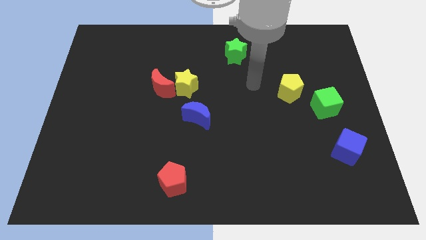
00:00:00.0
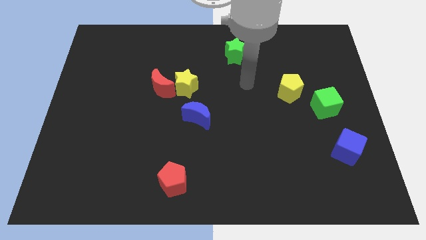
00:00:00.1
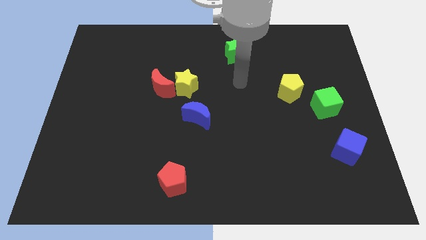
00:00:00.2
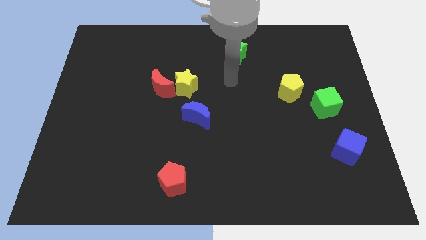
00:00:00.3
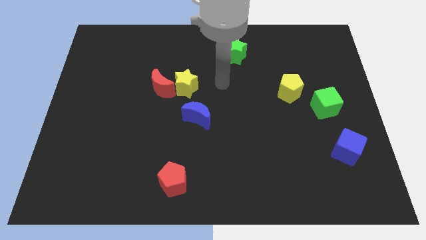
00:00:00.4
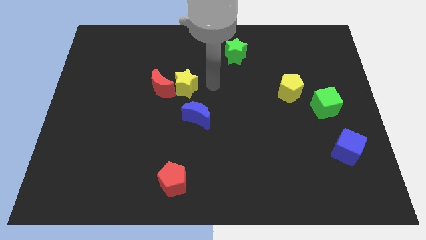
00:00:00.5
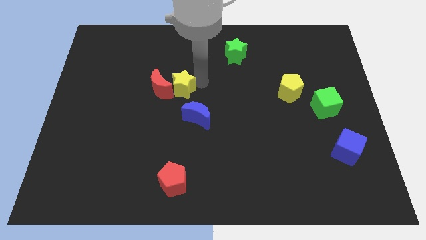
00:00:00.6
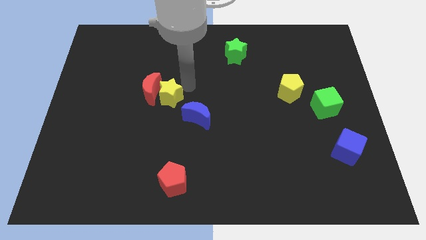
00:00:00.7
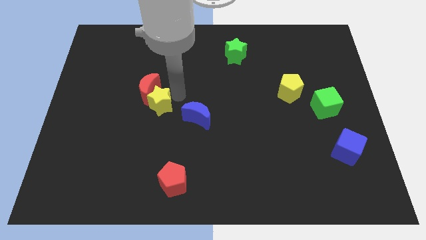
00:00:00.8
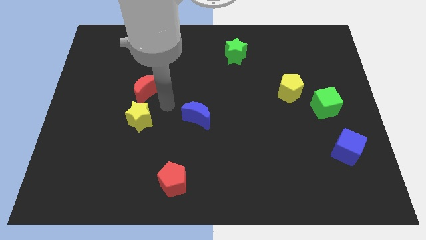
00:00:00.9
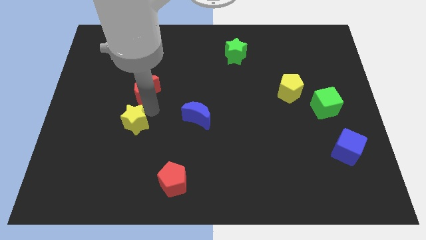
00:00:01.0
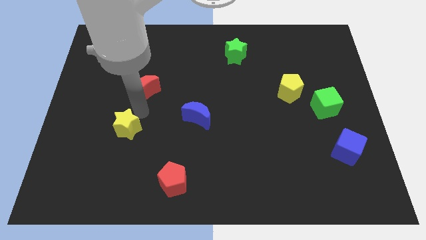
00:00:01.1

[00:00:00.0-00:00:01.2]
pull the red moon apart from the yellow star

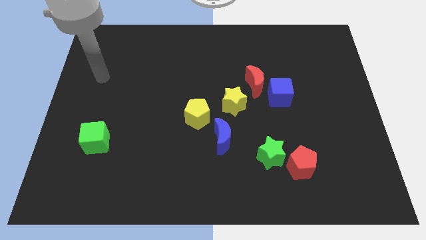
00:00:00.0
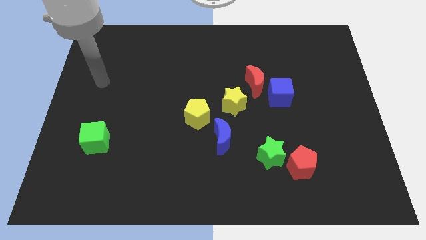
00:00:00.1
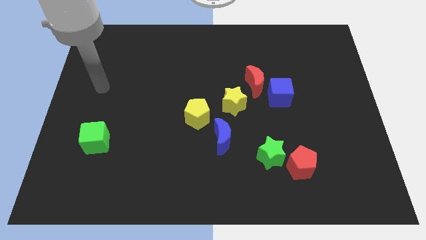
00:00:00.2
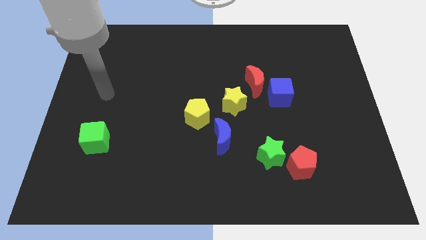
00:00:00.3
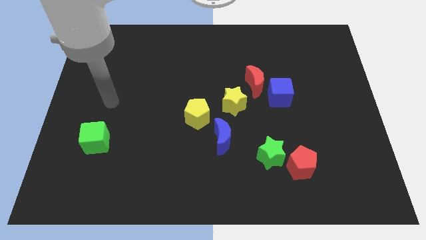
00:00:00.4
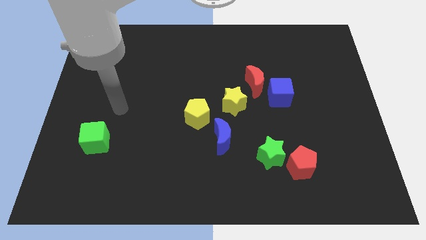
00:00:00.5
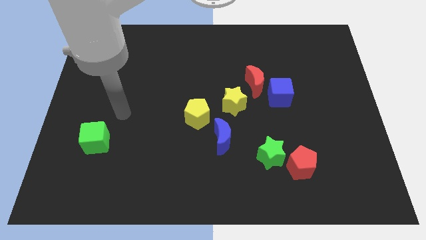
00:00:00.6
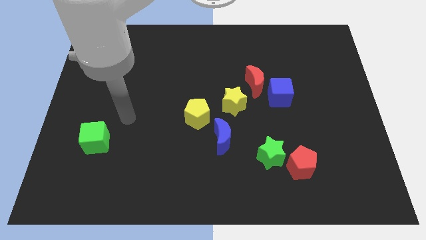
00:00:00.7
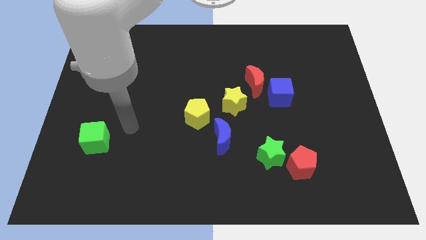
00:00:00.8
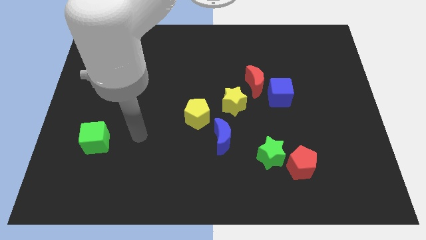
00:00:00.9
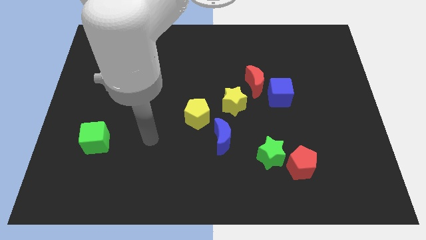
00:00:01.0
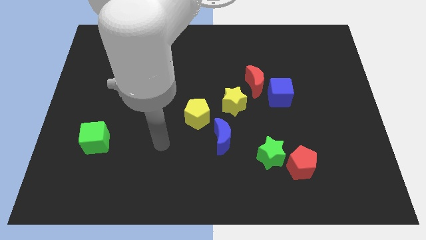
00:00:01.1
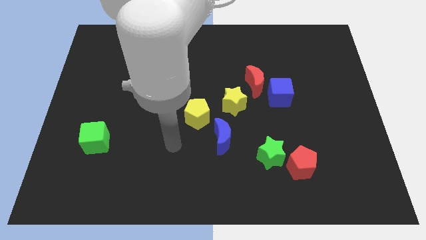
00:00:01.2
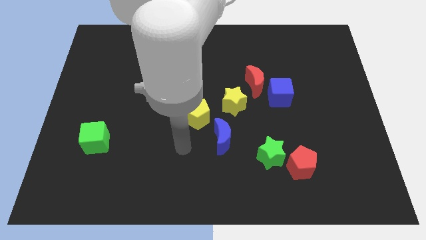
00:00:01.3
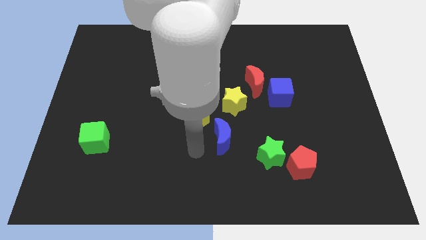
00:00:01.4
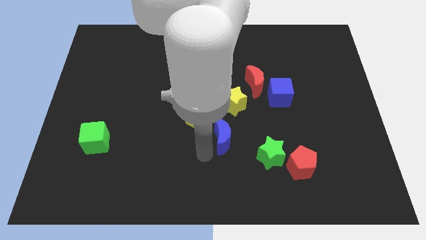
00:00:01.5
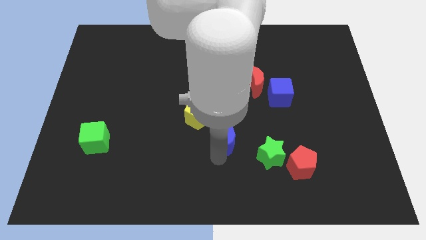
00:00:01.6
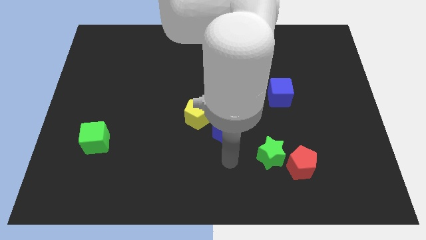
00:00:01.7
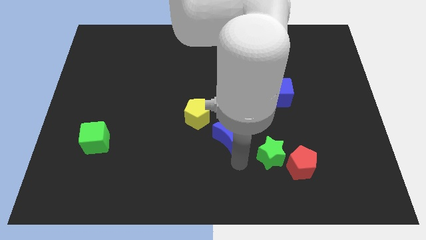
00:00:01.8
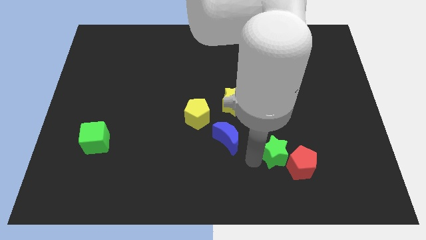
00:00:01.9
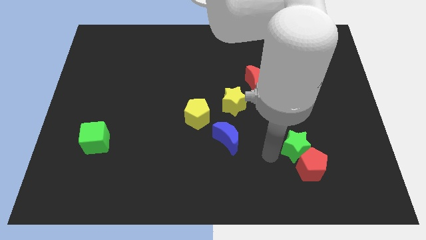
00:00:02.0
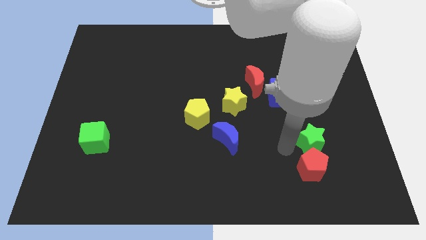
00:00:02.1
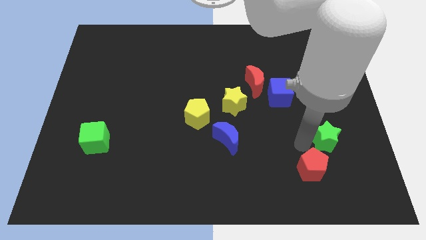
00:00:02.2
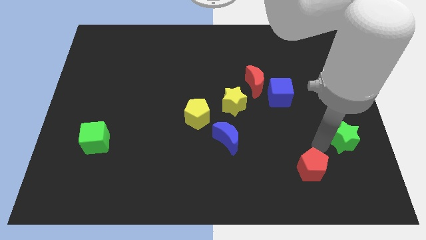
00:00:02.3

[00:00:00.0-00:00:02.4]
move the red pentagon away from the green star

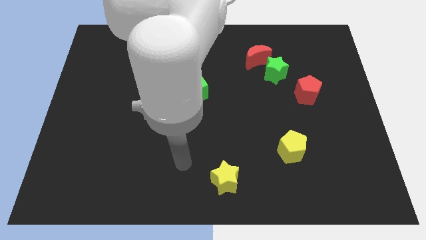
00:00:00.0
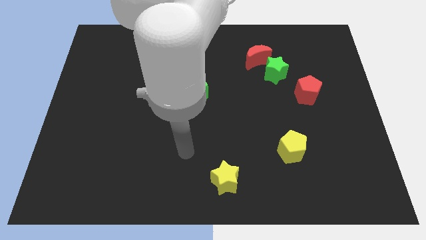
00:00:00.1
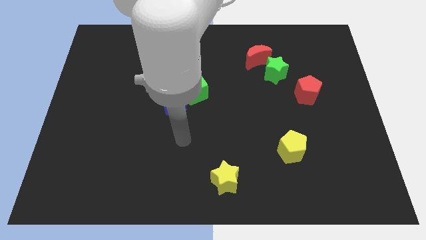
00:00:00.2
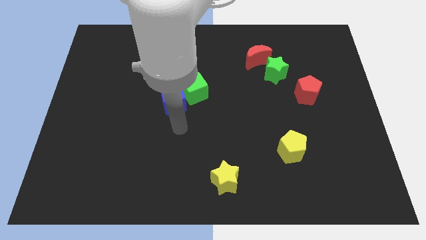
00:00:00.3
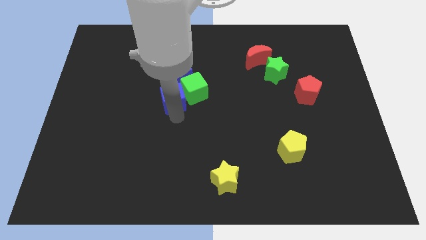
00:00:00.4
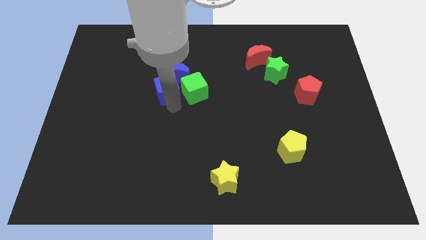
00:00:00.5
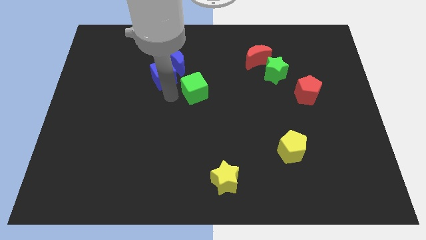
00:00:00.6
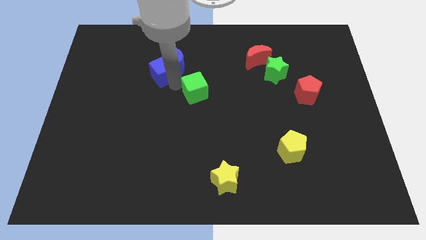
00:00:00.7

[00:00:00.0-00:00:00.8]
separate the green cube from the blue cube and blue moon

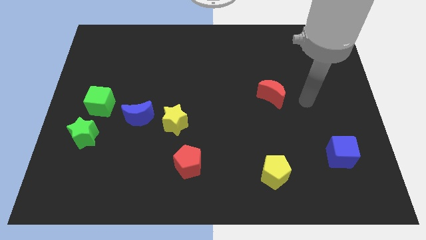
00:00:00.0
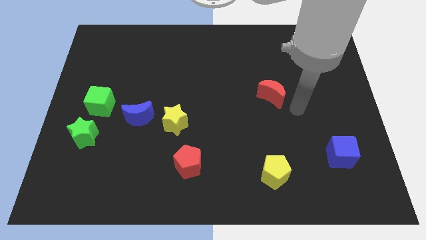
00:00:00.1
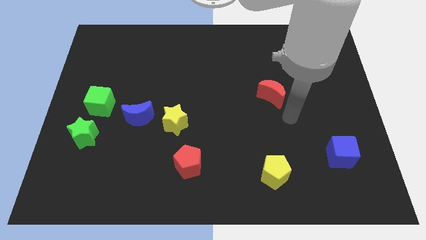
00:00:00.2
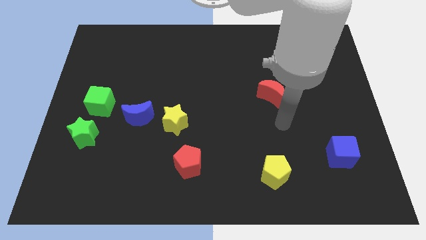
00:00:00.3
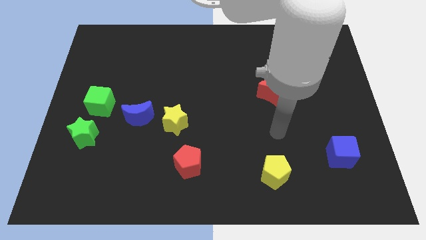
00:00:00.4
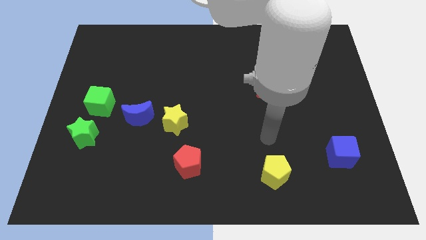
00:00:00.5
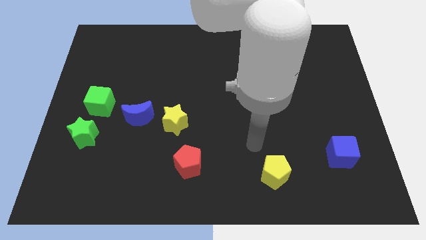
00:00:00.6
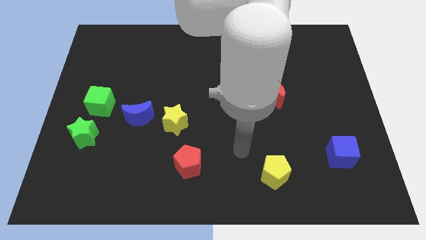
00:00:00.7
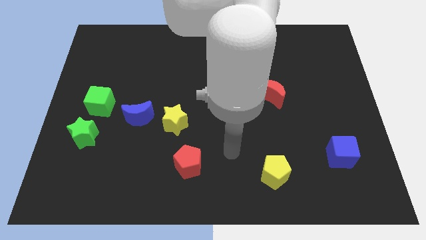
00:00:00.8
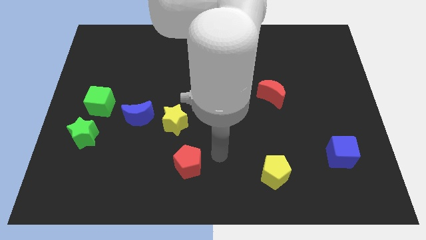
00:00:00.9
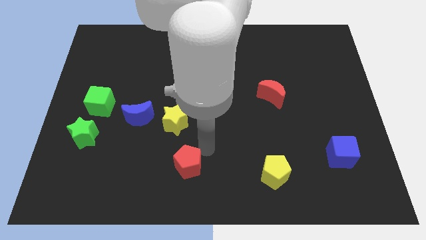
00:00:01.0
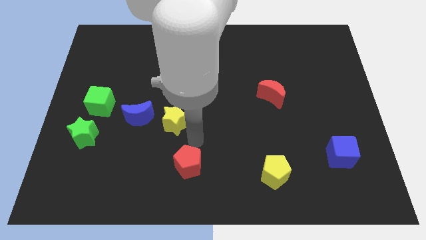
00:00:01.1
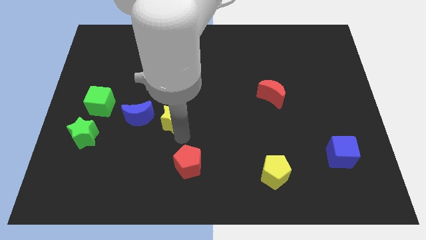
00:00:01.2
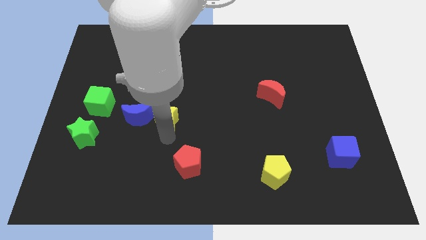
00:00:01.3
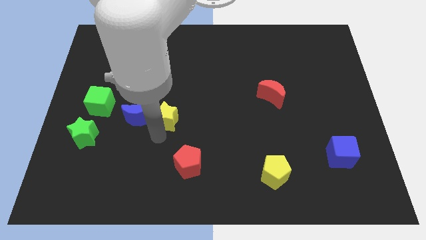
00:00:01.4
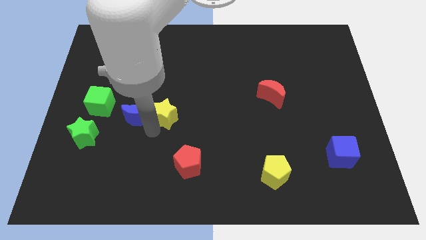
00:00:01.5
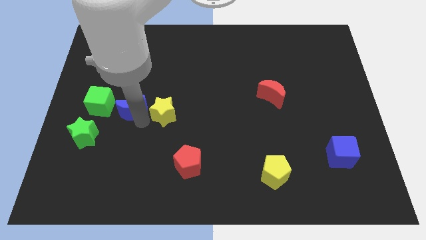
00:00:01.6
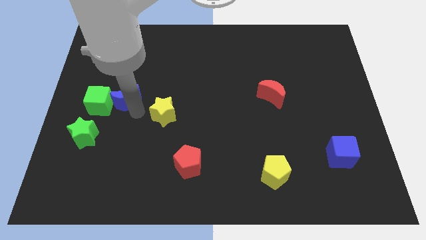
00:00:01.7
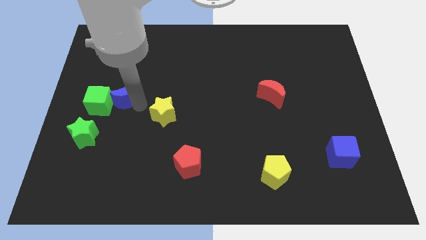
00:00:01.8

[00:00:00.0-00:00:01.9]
move the yellow star away from the blue moon

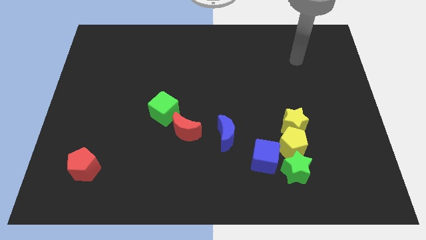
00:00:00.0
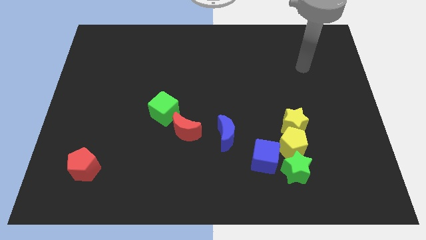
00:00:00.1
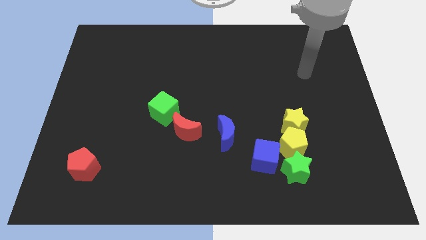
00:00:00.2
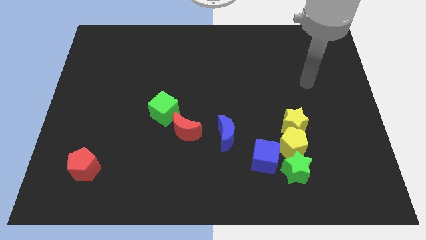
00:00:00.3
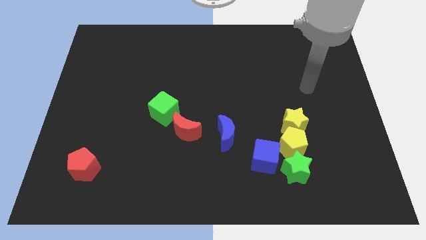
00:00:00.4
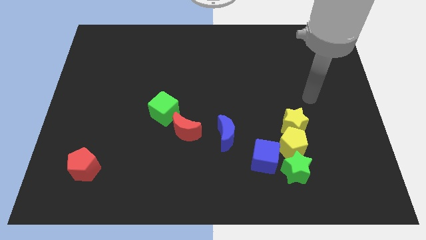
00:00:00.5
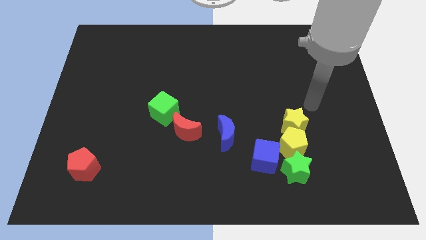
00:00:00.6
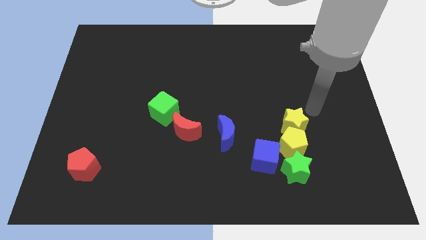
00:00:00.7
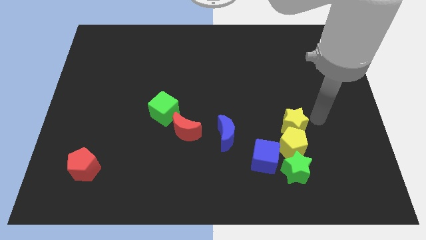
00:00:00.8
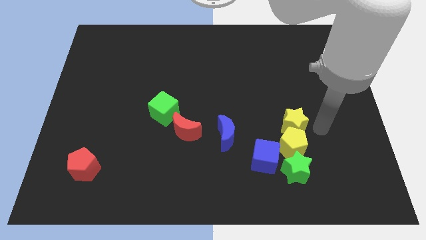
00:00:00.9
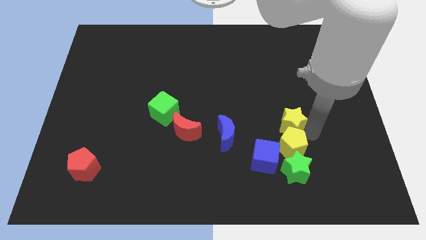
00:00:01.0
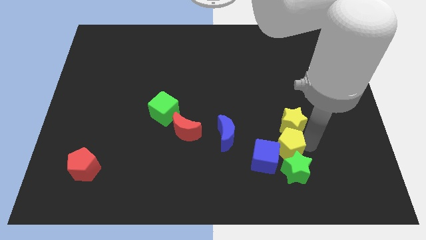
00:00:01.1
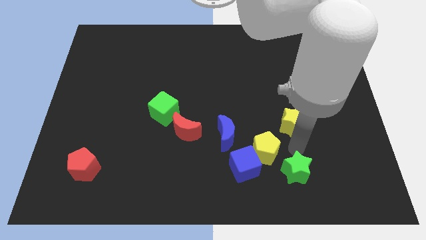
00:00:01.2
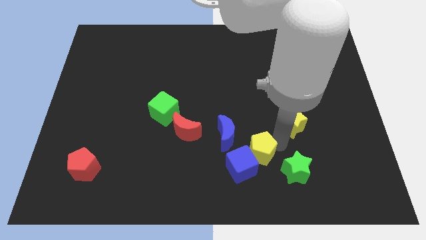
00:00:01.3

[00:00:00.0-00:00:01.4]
move the yellow star away from the yellow pentagon

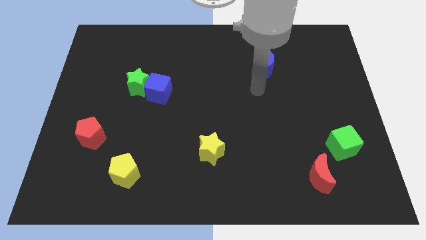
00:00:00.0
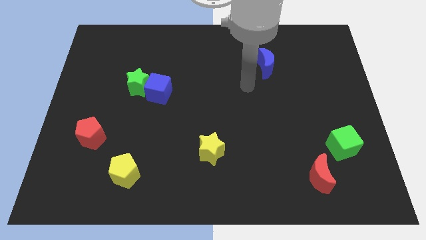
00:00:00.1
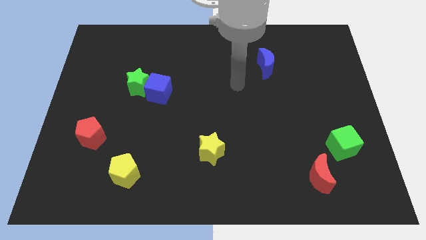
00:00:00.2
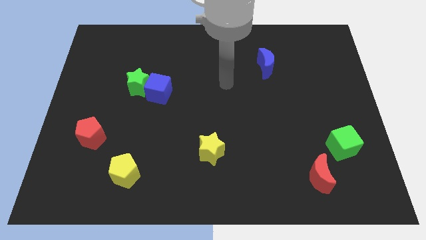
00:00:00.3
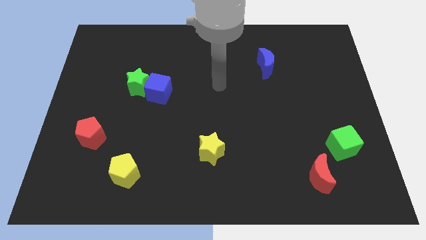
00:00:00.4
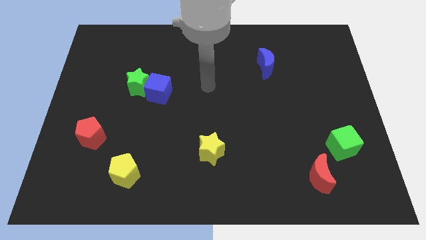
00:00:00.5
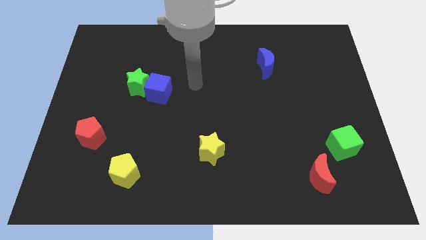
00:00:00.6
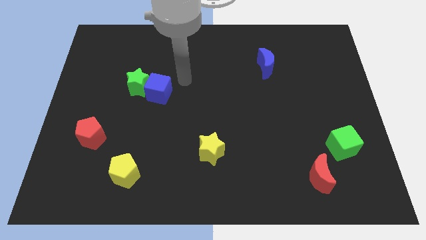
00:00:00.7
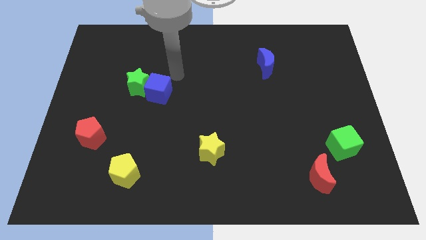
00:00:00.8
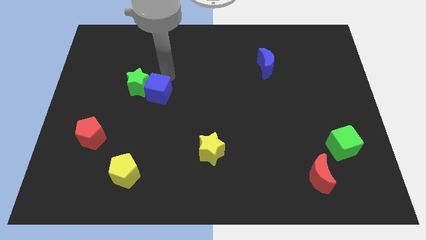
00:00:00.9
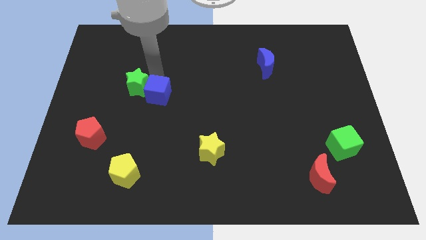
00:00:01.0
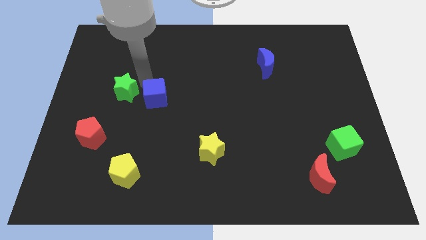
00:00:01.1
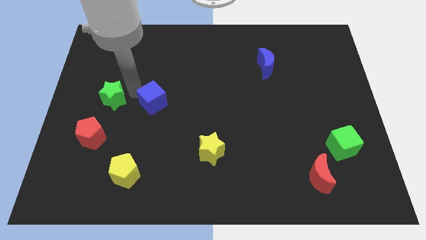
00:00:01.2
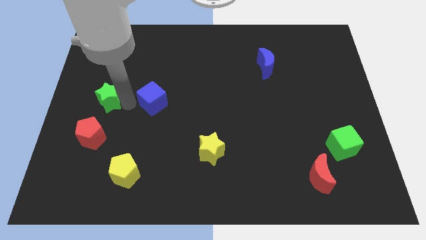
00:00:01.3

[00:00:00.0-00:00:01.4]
separate the blue cube from the green star

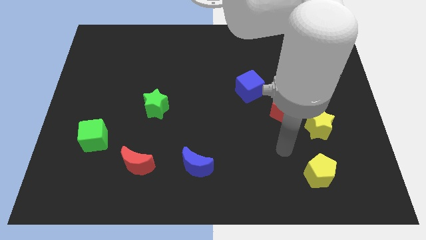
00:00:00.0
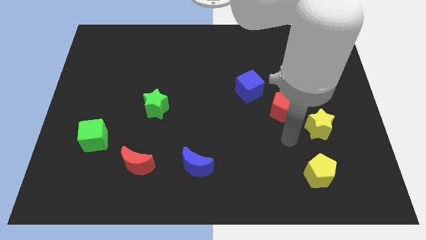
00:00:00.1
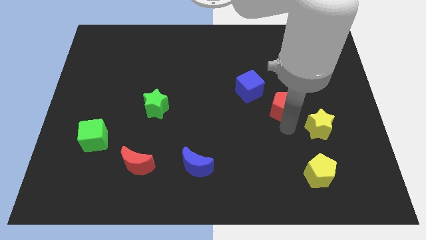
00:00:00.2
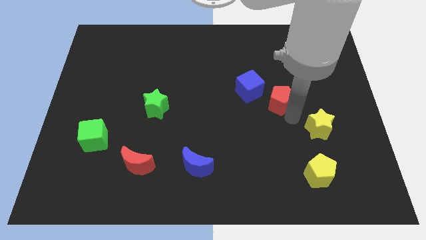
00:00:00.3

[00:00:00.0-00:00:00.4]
separate the yellow star from the red pentagon
